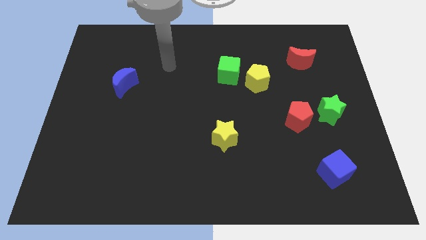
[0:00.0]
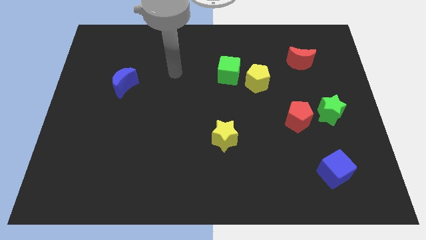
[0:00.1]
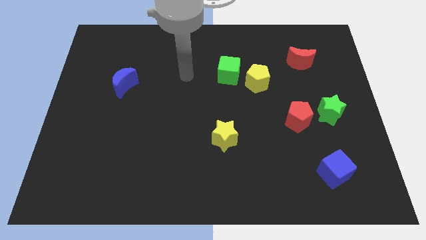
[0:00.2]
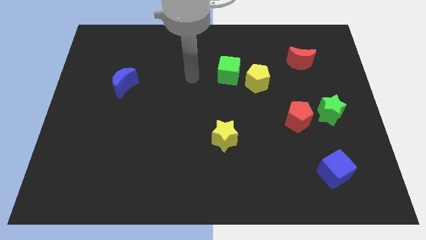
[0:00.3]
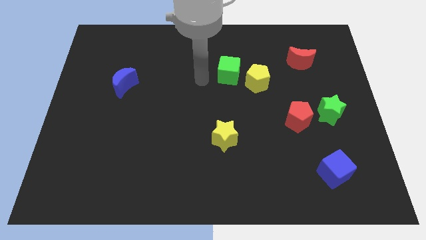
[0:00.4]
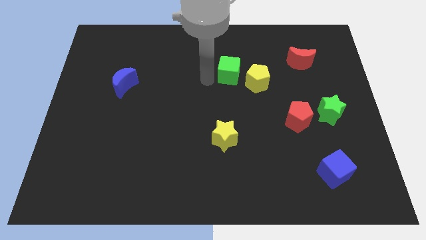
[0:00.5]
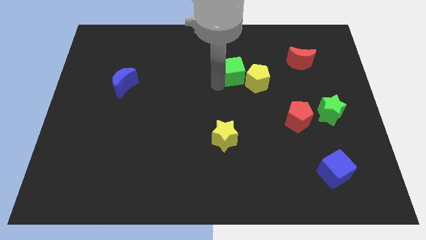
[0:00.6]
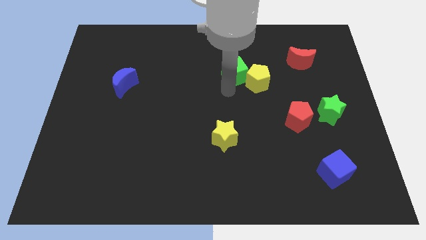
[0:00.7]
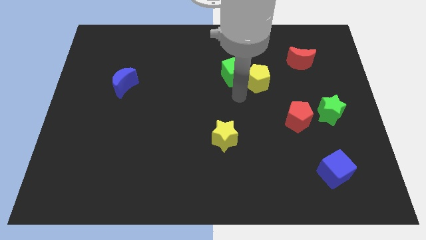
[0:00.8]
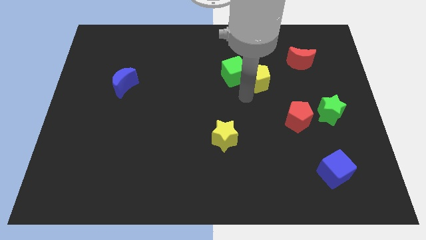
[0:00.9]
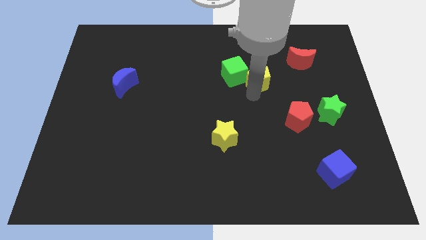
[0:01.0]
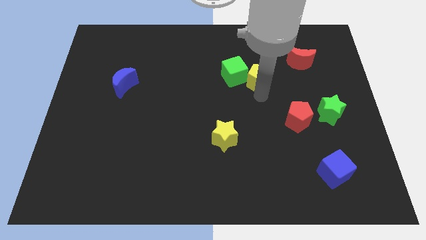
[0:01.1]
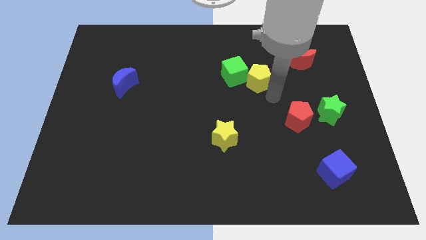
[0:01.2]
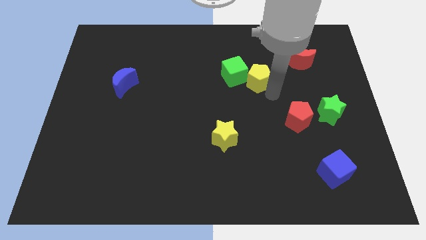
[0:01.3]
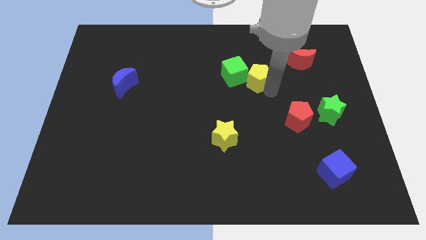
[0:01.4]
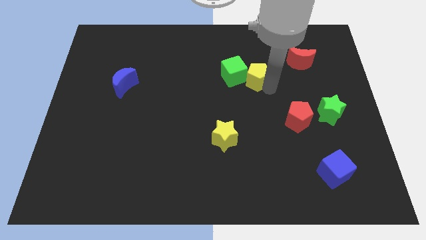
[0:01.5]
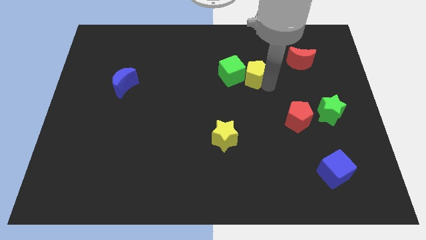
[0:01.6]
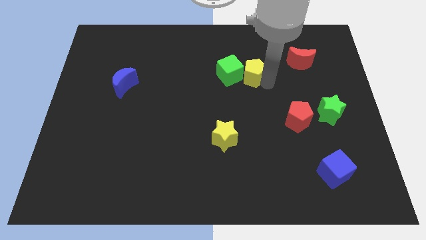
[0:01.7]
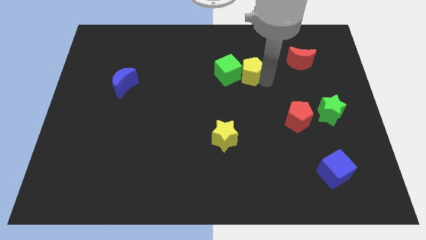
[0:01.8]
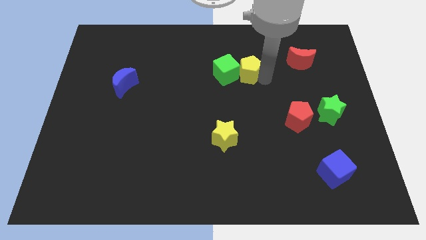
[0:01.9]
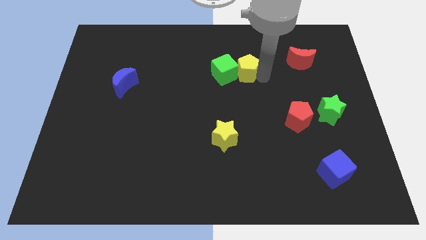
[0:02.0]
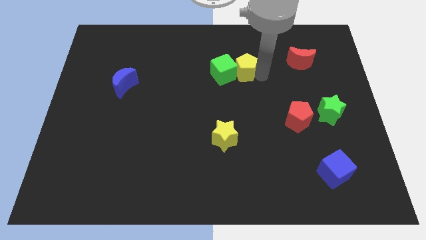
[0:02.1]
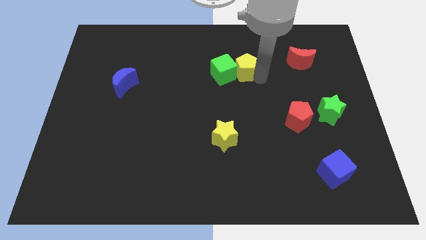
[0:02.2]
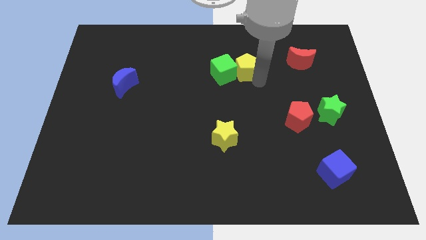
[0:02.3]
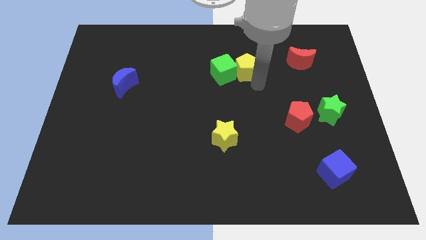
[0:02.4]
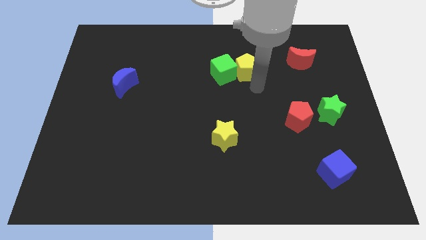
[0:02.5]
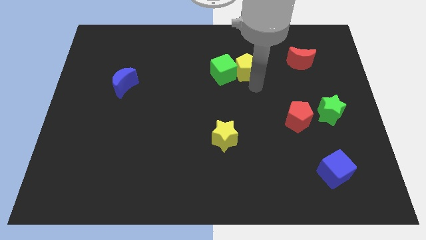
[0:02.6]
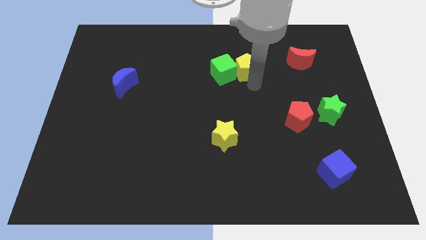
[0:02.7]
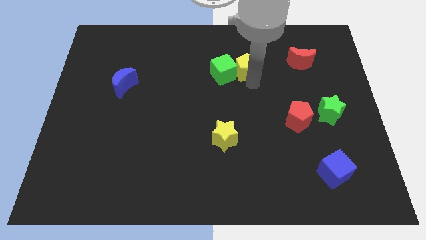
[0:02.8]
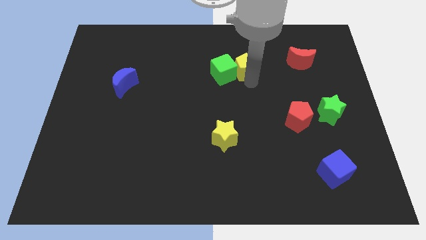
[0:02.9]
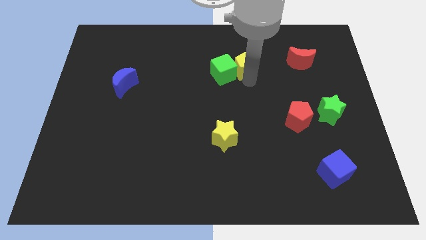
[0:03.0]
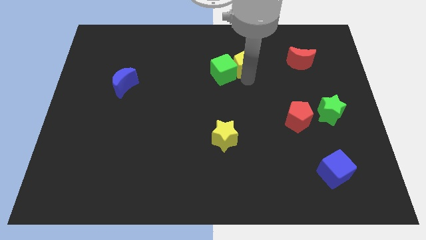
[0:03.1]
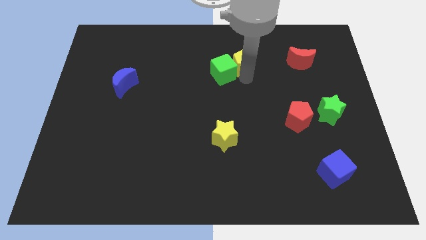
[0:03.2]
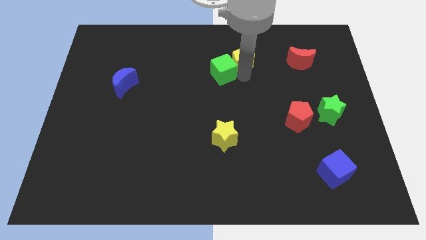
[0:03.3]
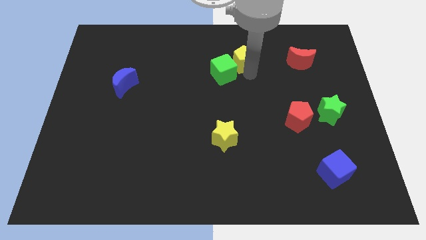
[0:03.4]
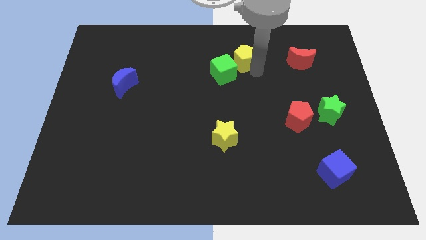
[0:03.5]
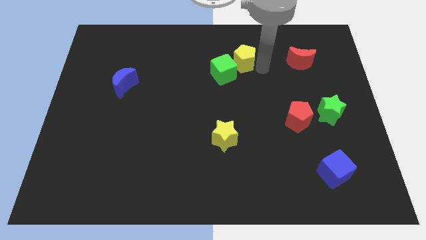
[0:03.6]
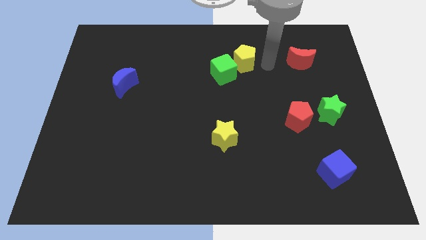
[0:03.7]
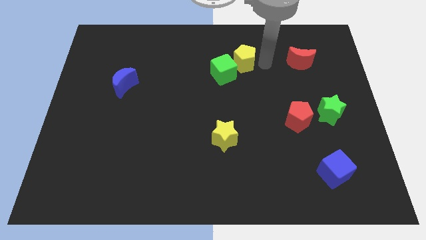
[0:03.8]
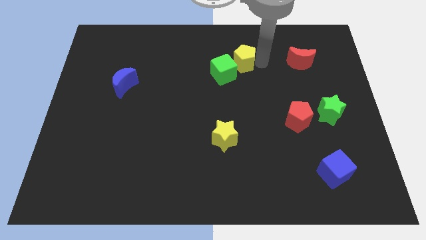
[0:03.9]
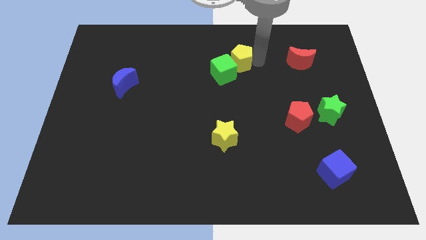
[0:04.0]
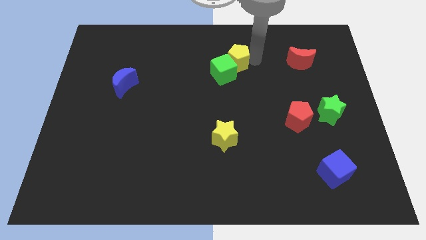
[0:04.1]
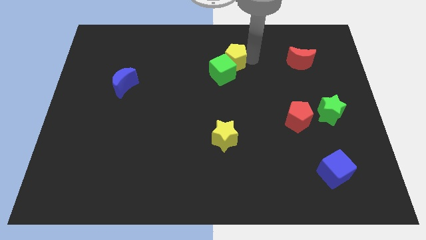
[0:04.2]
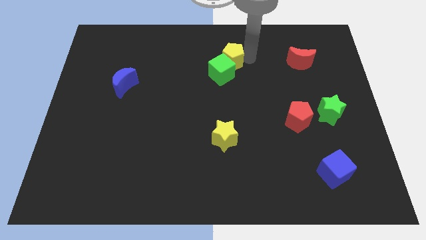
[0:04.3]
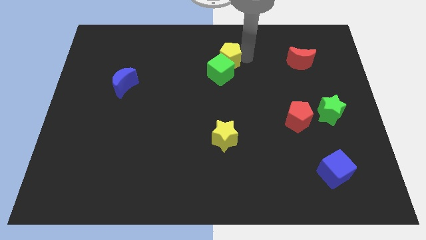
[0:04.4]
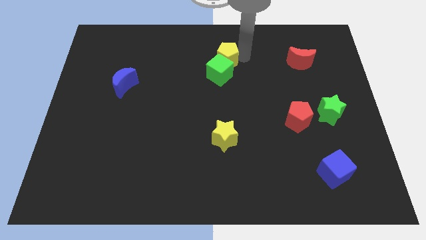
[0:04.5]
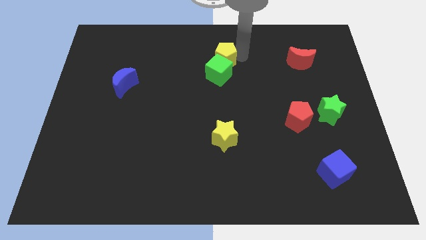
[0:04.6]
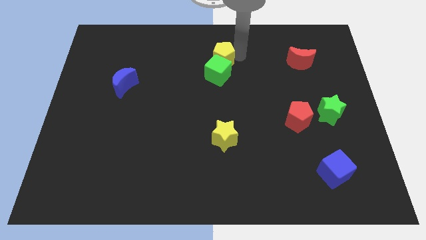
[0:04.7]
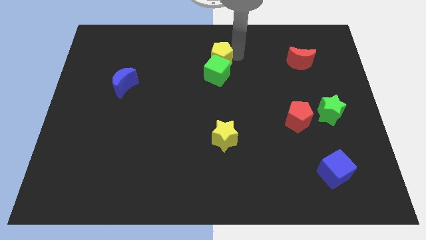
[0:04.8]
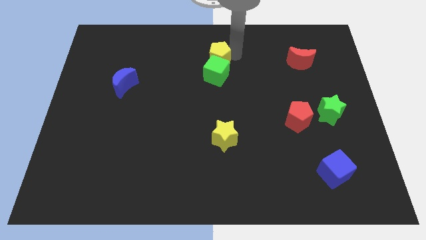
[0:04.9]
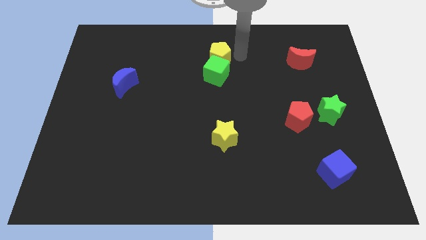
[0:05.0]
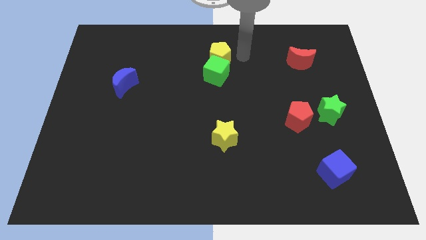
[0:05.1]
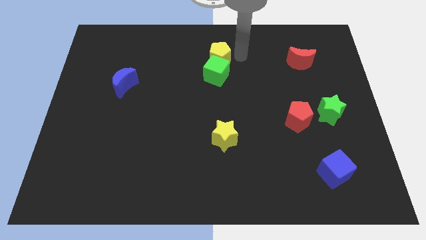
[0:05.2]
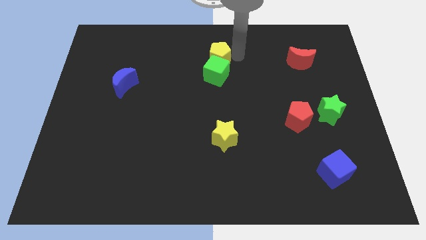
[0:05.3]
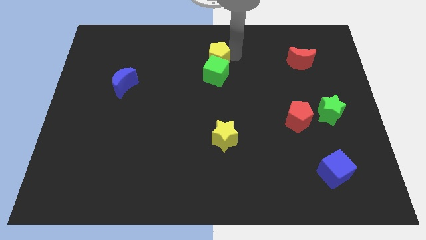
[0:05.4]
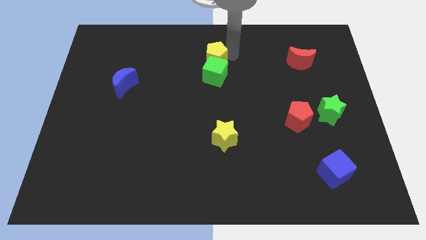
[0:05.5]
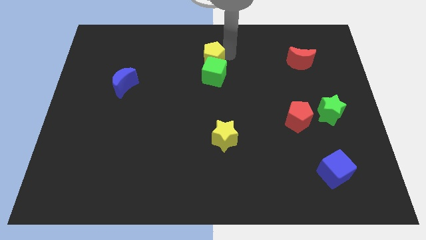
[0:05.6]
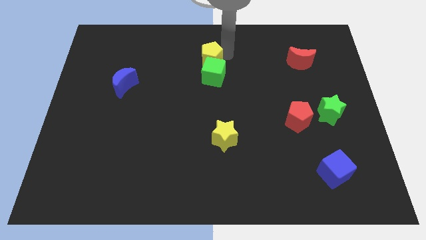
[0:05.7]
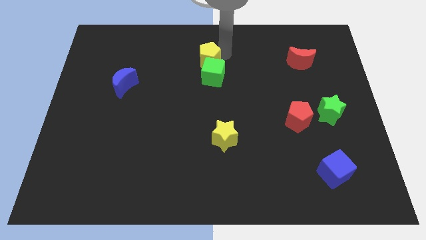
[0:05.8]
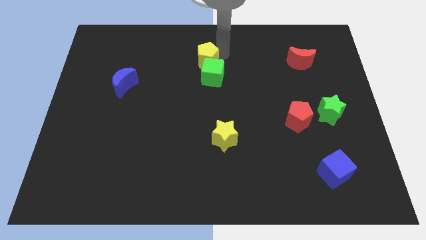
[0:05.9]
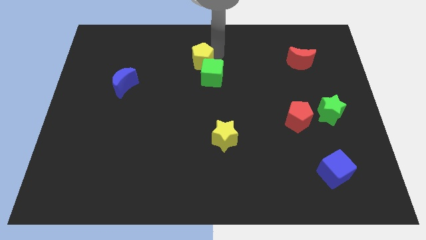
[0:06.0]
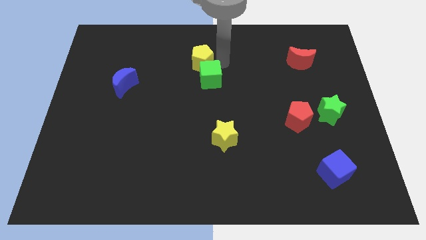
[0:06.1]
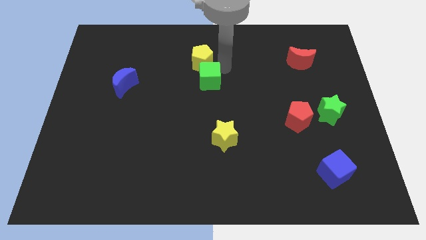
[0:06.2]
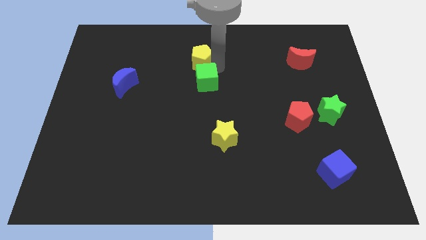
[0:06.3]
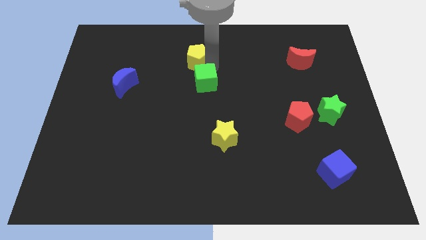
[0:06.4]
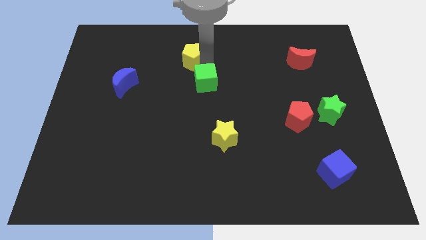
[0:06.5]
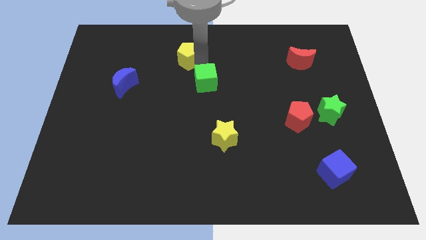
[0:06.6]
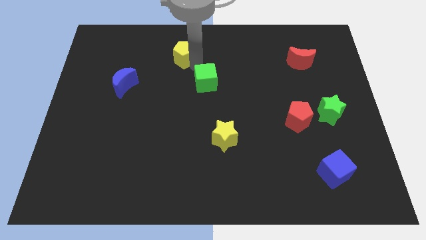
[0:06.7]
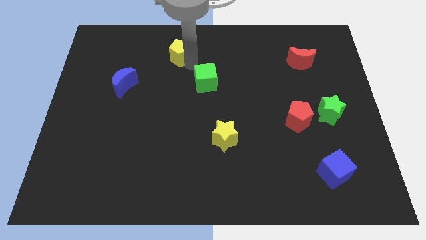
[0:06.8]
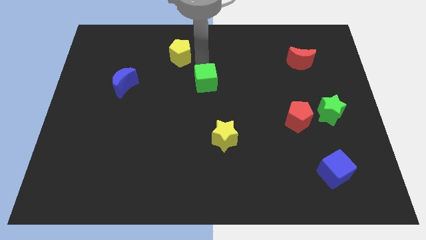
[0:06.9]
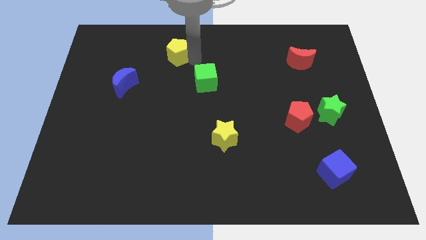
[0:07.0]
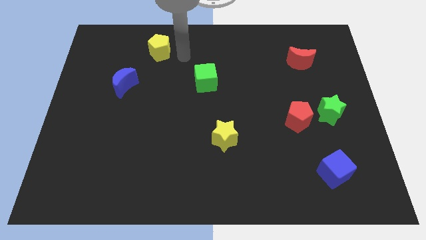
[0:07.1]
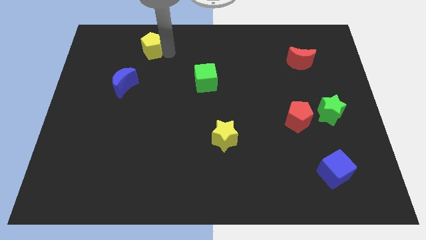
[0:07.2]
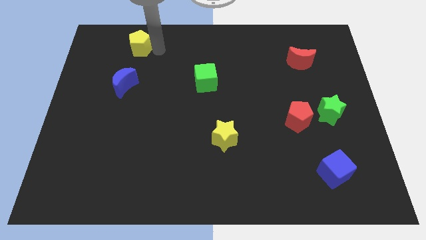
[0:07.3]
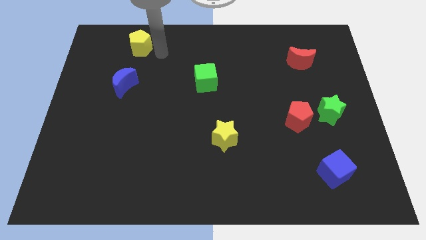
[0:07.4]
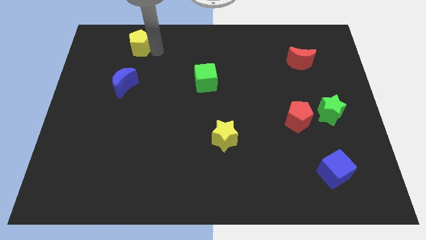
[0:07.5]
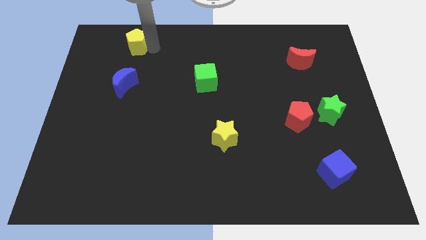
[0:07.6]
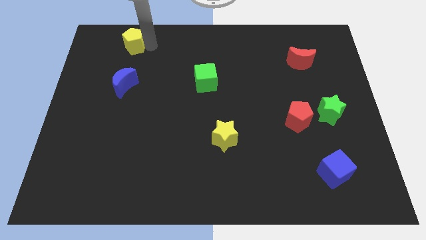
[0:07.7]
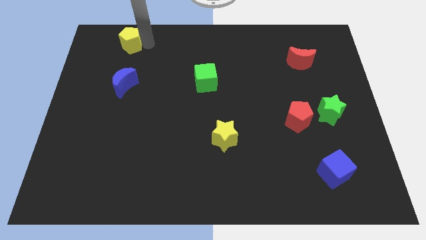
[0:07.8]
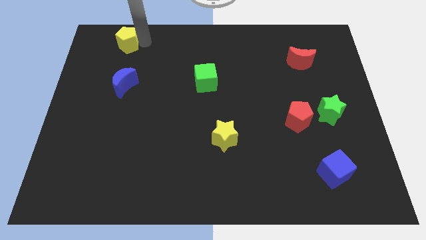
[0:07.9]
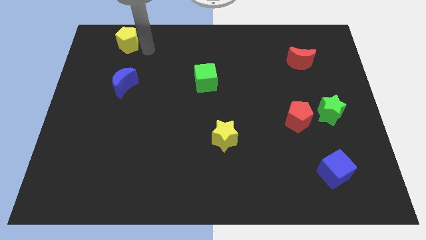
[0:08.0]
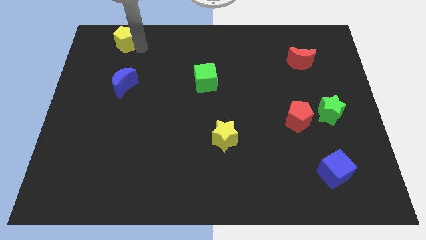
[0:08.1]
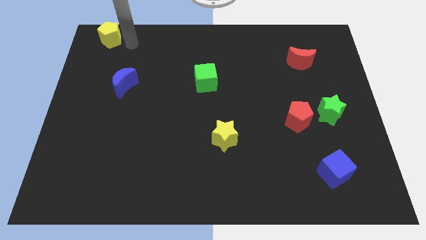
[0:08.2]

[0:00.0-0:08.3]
move the yellow pentagon to the top left corner
